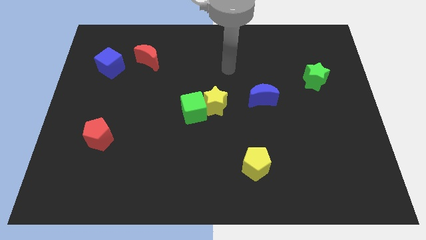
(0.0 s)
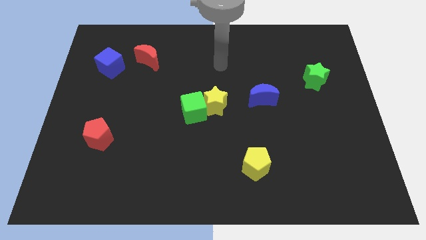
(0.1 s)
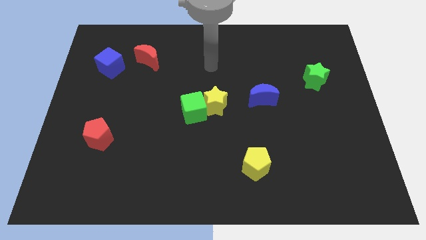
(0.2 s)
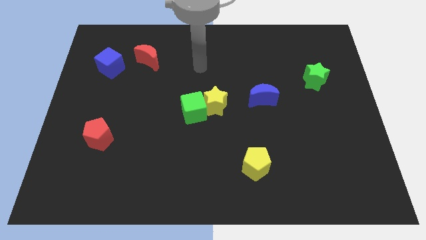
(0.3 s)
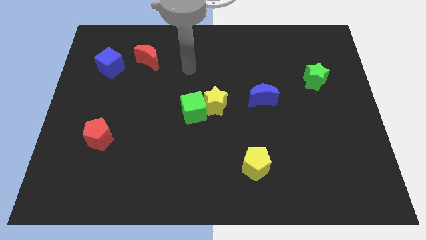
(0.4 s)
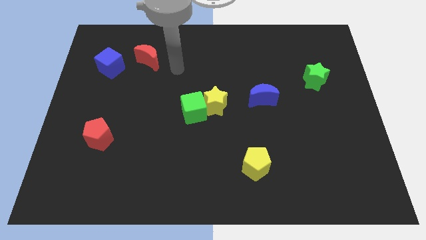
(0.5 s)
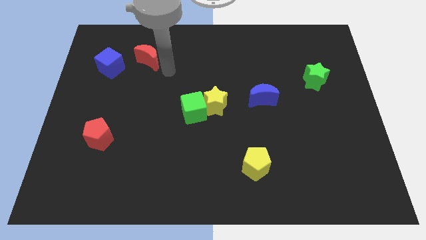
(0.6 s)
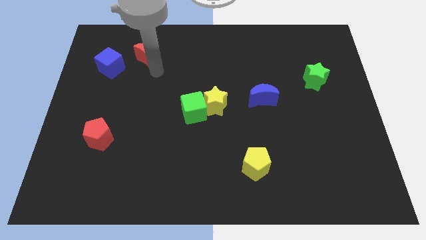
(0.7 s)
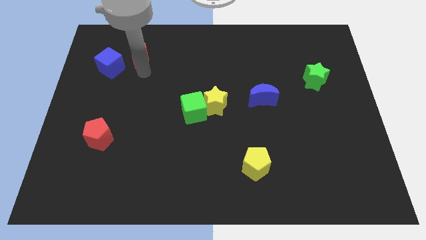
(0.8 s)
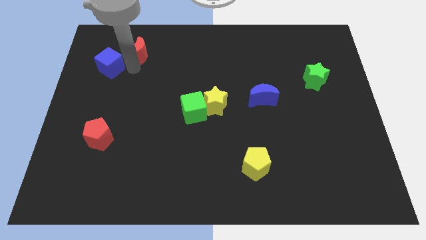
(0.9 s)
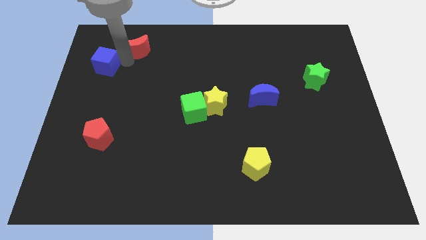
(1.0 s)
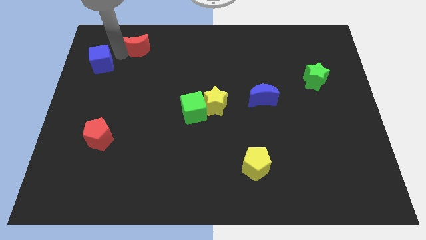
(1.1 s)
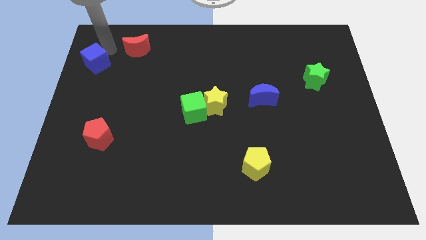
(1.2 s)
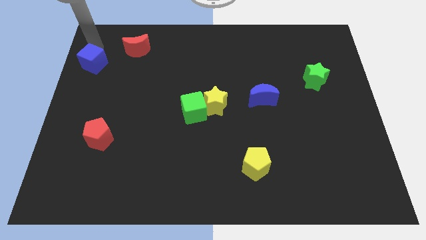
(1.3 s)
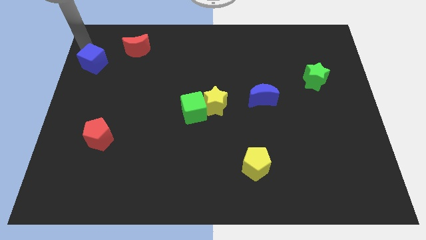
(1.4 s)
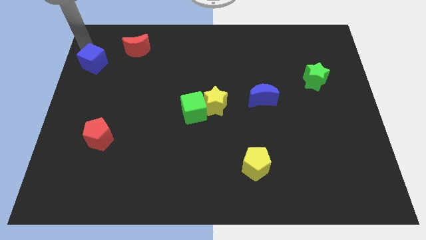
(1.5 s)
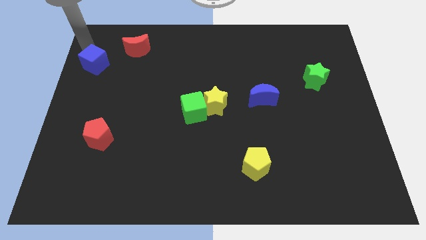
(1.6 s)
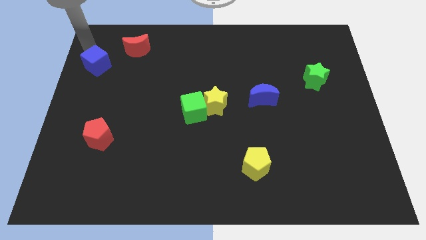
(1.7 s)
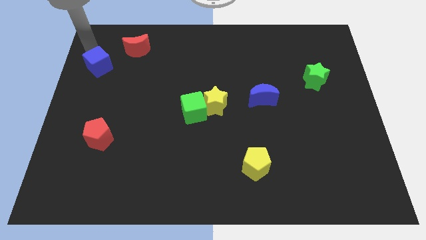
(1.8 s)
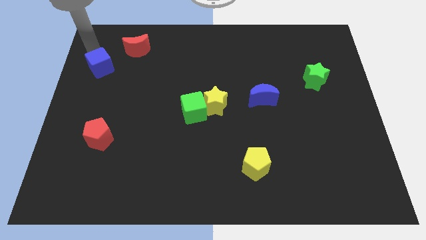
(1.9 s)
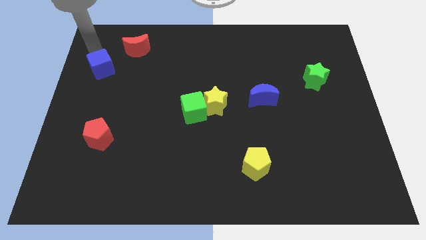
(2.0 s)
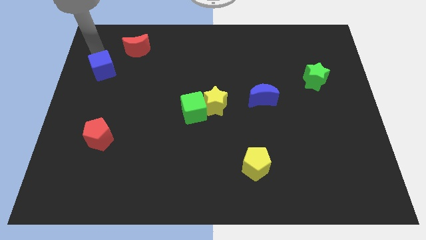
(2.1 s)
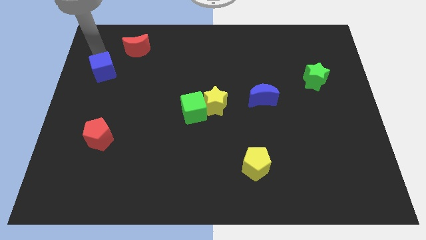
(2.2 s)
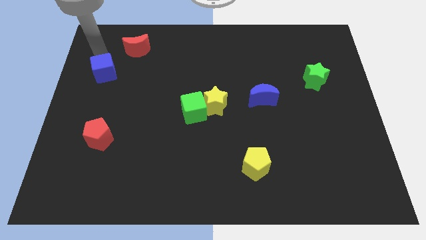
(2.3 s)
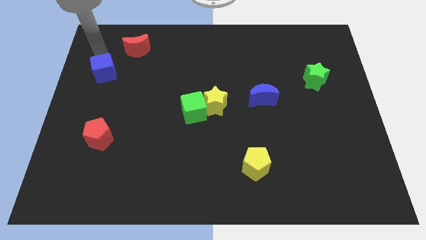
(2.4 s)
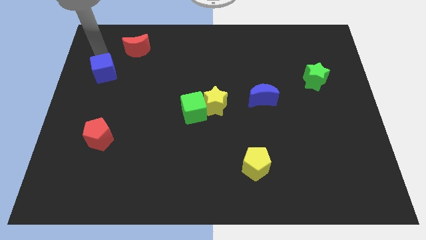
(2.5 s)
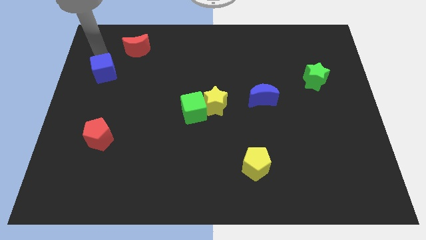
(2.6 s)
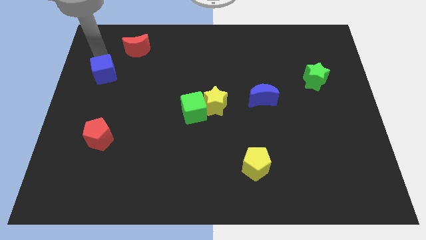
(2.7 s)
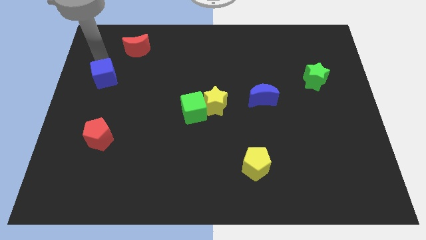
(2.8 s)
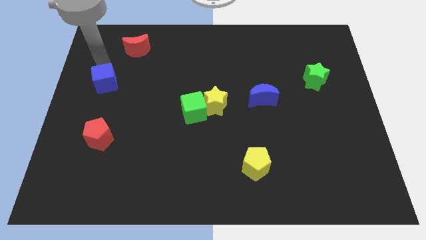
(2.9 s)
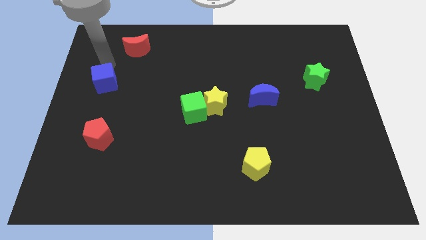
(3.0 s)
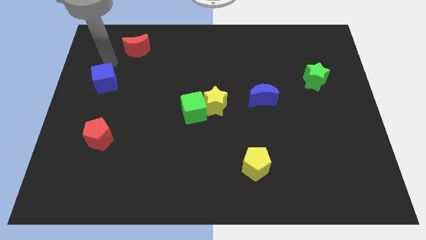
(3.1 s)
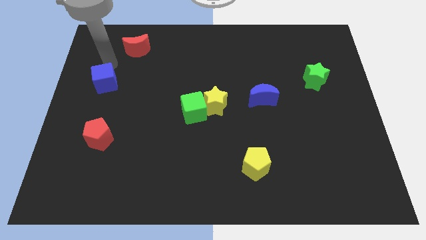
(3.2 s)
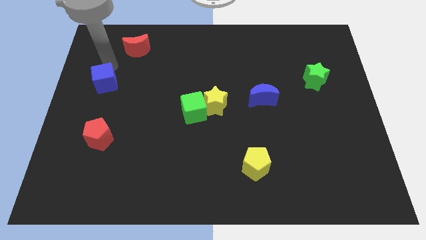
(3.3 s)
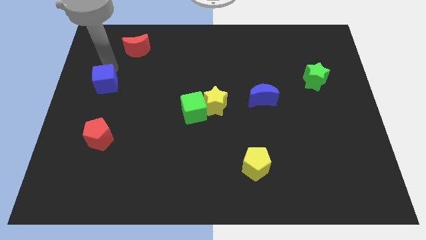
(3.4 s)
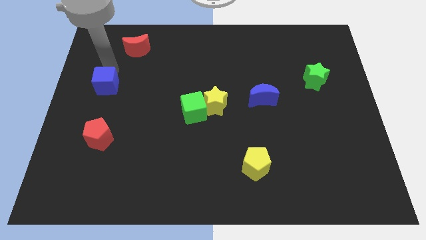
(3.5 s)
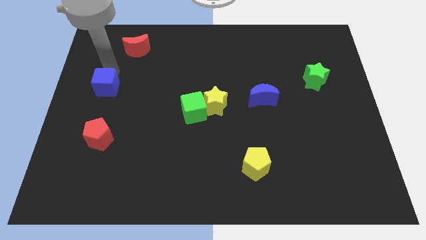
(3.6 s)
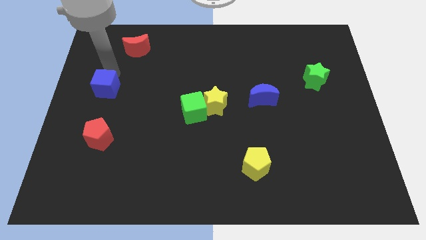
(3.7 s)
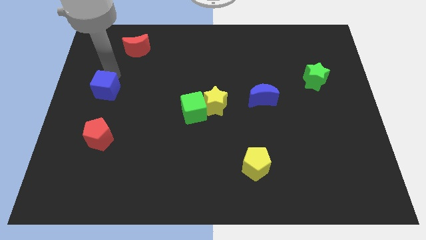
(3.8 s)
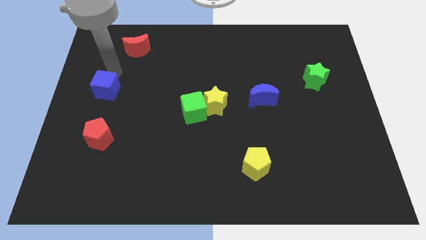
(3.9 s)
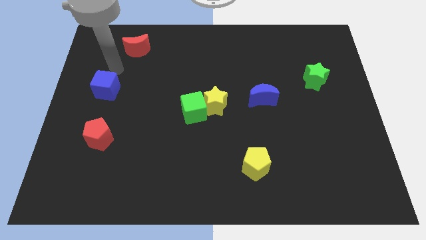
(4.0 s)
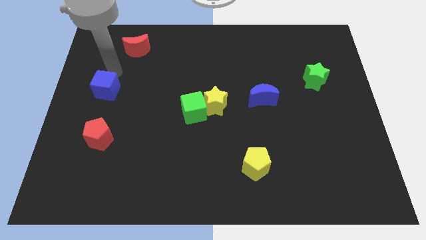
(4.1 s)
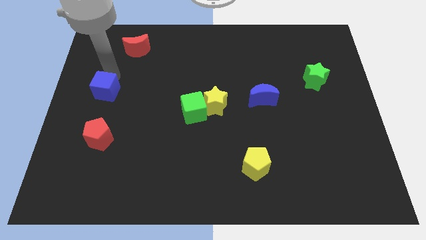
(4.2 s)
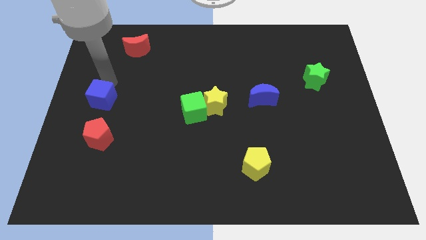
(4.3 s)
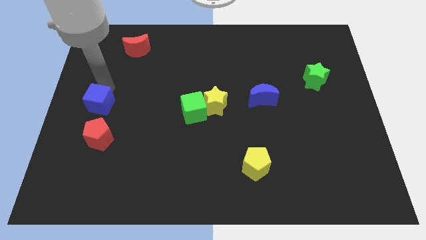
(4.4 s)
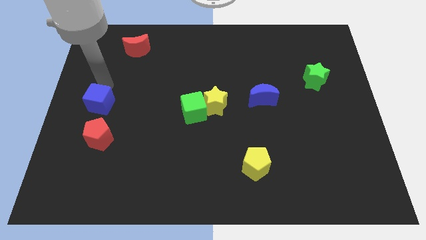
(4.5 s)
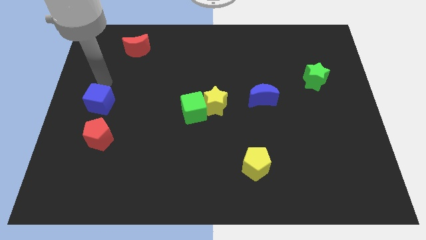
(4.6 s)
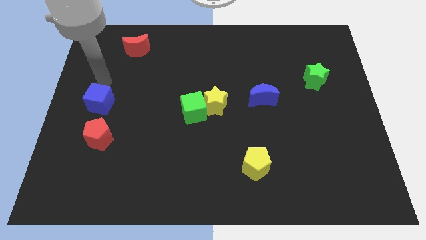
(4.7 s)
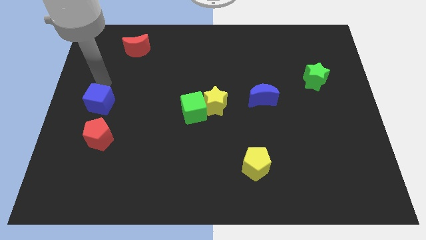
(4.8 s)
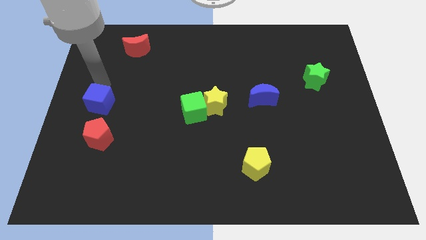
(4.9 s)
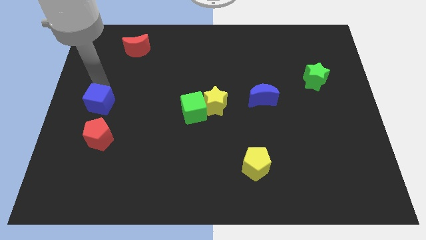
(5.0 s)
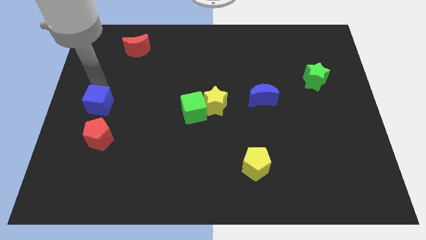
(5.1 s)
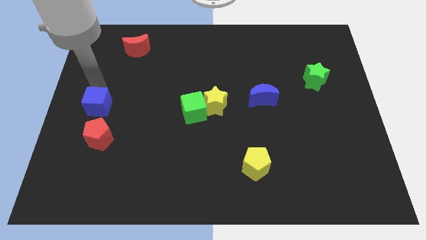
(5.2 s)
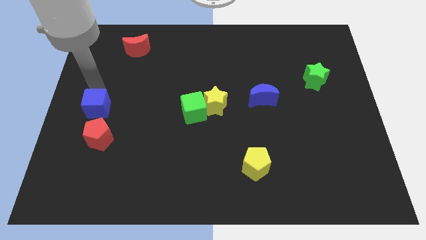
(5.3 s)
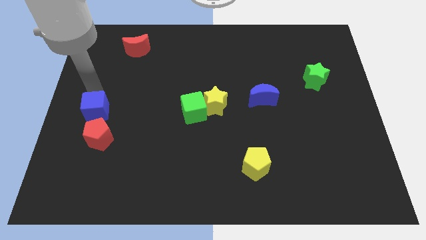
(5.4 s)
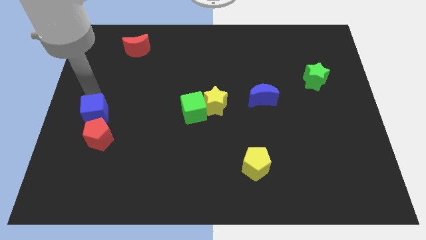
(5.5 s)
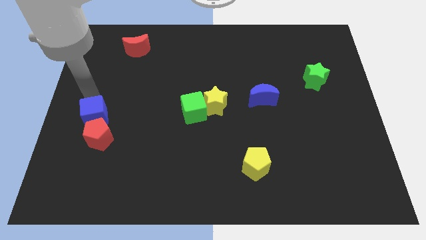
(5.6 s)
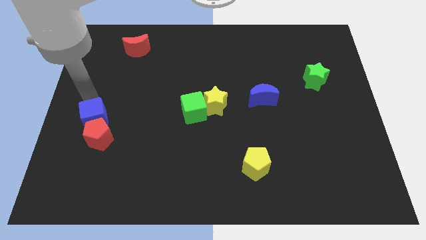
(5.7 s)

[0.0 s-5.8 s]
slide the blue cube towards the red pentagon

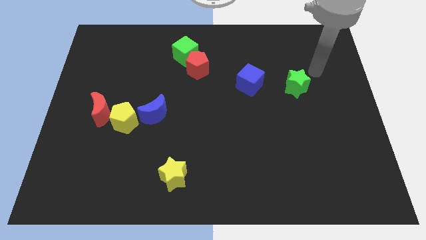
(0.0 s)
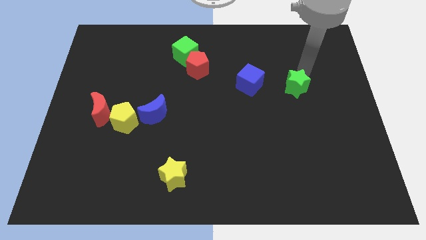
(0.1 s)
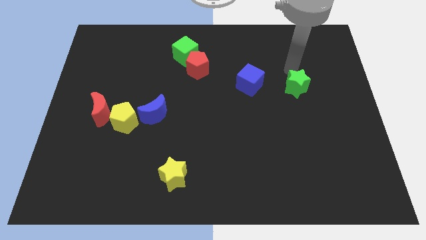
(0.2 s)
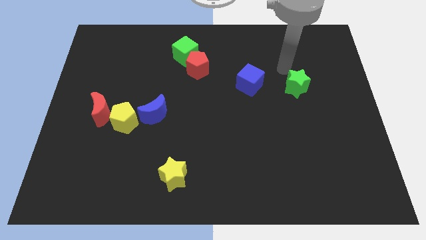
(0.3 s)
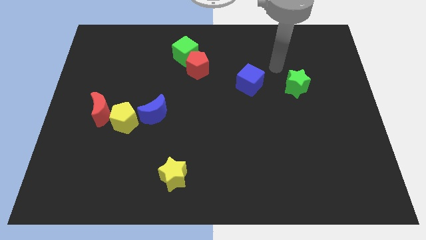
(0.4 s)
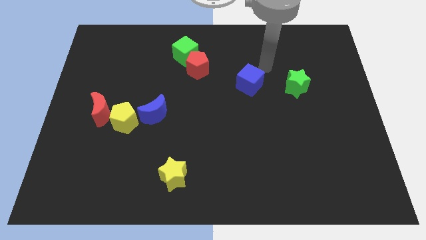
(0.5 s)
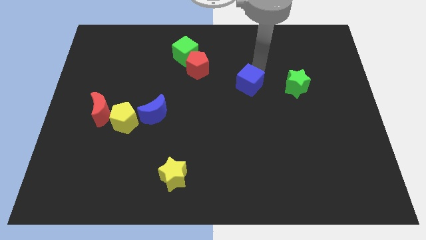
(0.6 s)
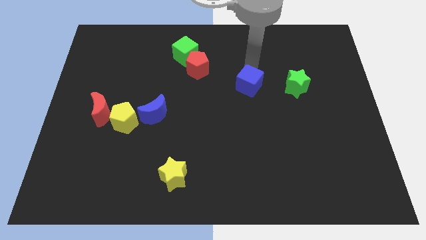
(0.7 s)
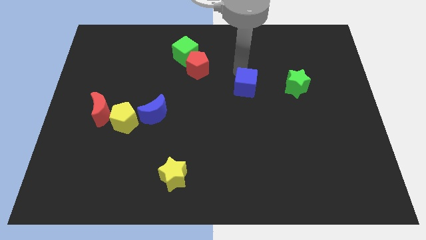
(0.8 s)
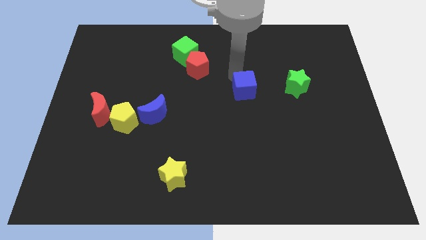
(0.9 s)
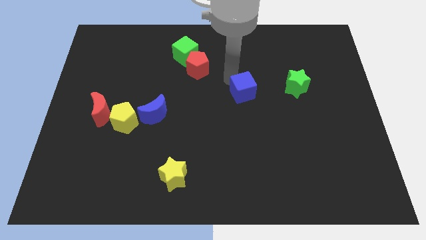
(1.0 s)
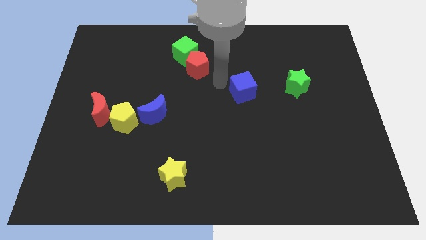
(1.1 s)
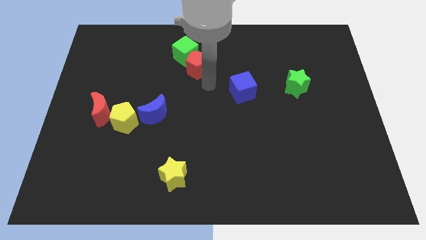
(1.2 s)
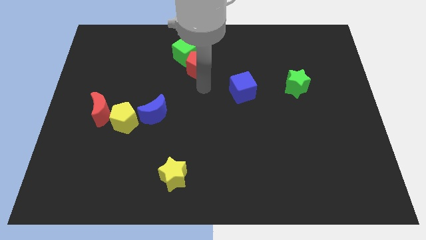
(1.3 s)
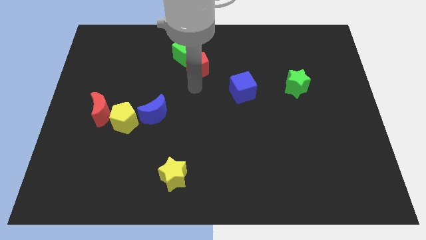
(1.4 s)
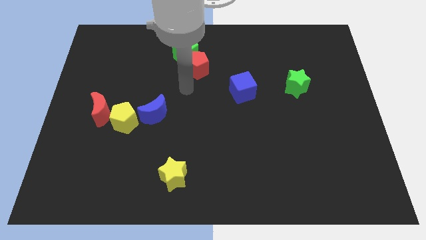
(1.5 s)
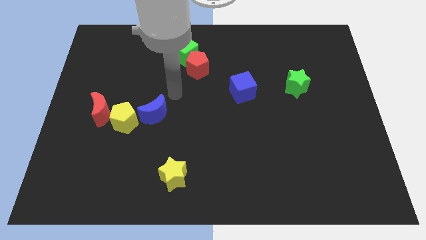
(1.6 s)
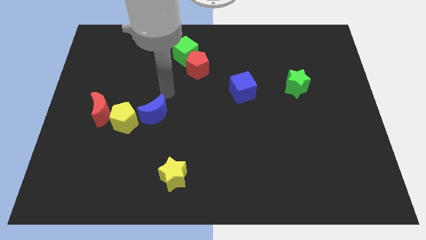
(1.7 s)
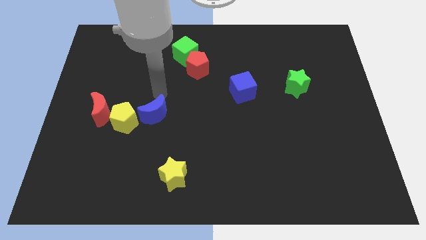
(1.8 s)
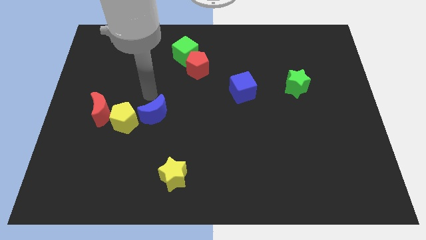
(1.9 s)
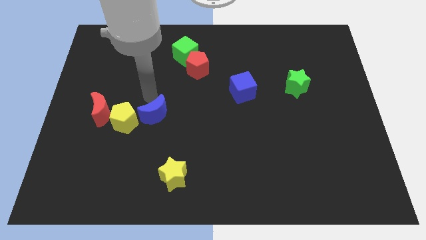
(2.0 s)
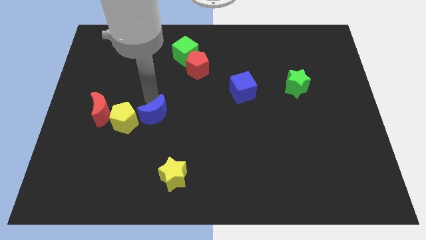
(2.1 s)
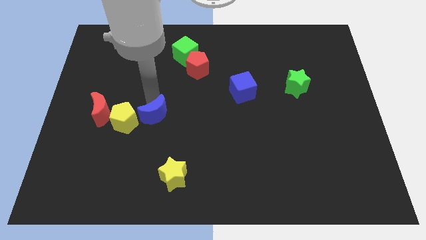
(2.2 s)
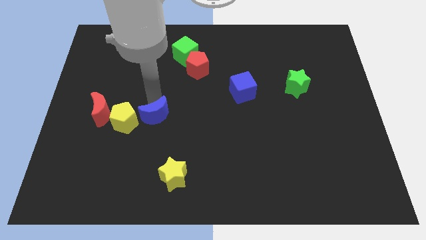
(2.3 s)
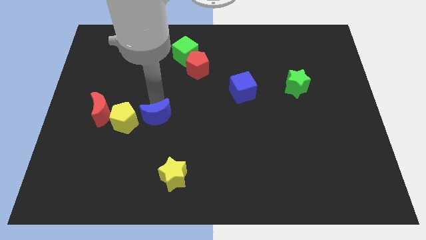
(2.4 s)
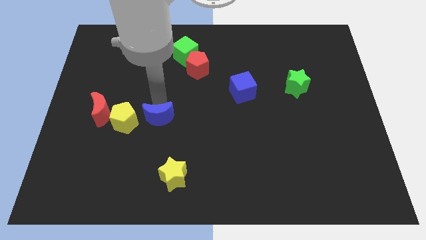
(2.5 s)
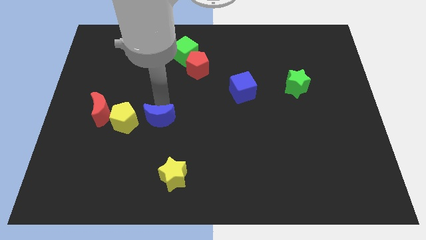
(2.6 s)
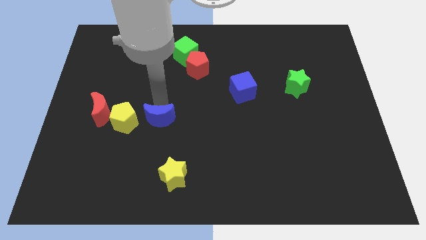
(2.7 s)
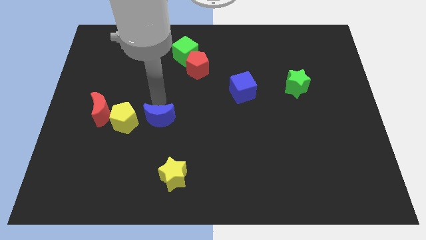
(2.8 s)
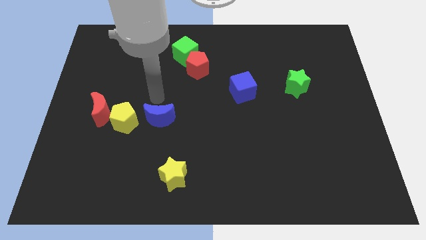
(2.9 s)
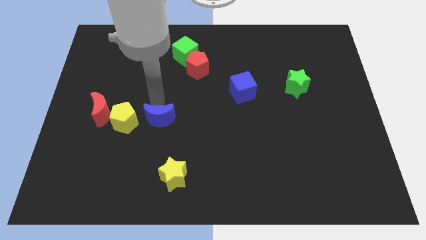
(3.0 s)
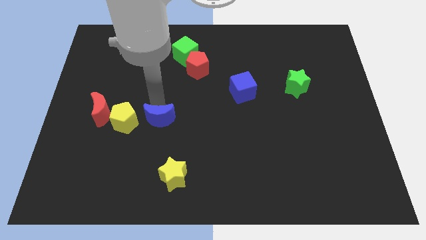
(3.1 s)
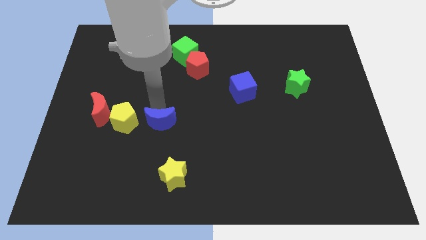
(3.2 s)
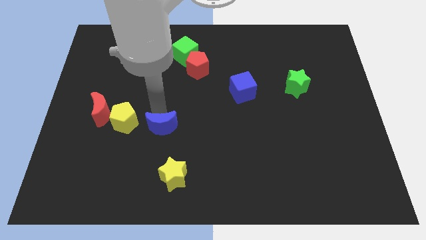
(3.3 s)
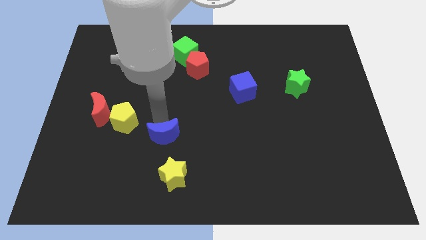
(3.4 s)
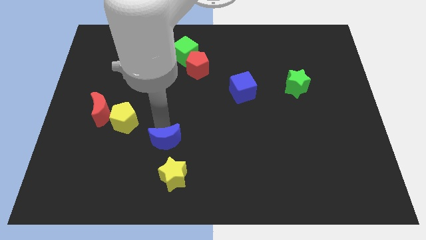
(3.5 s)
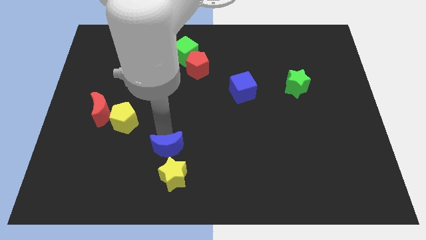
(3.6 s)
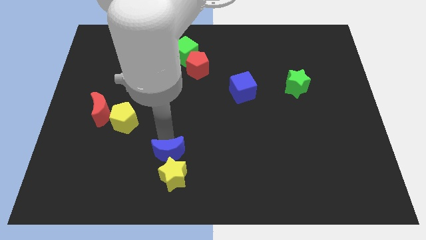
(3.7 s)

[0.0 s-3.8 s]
slide the blue moon towards the yellow star
